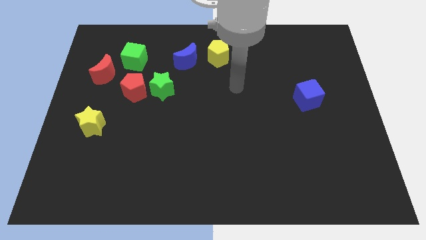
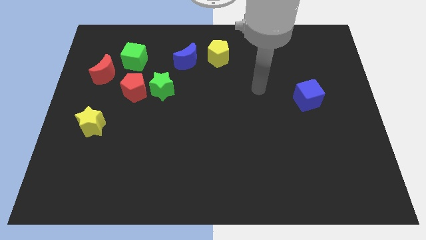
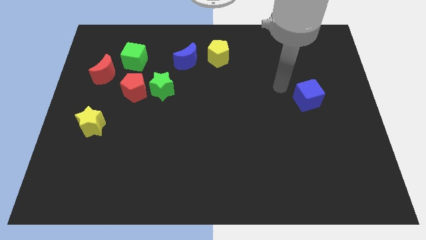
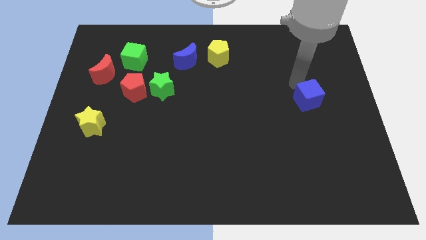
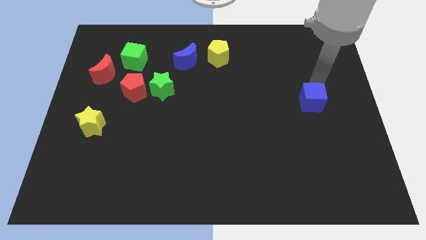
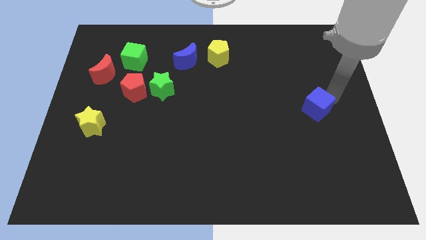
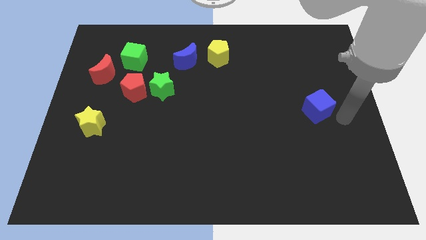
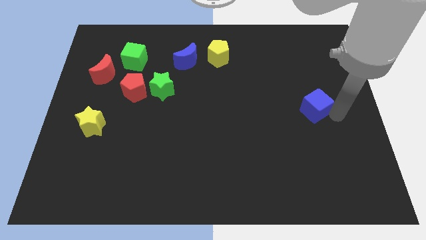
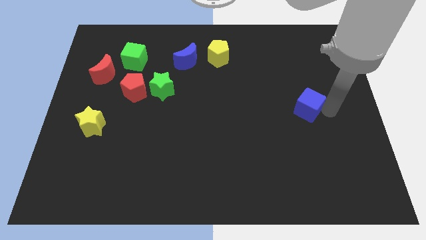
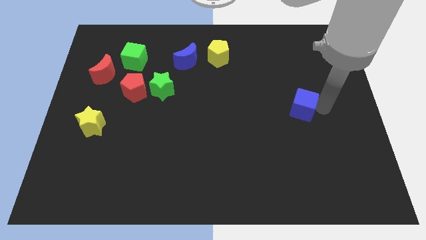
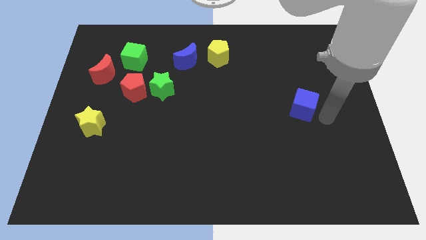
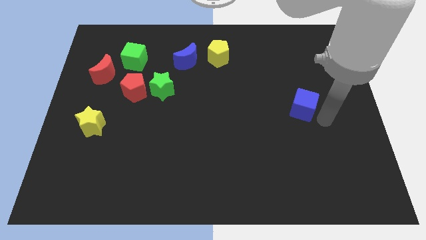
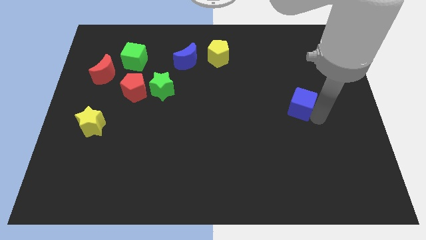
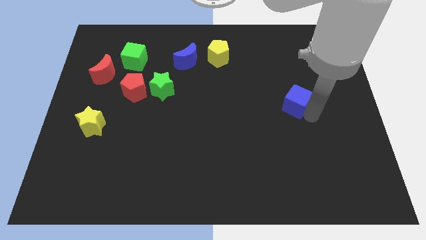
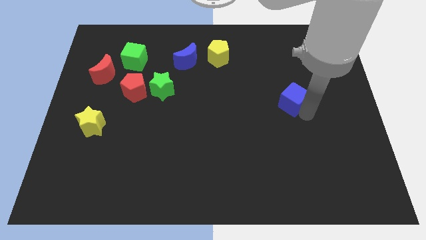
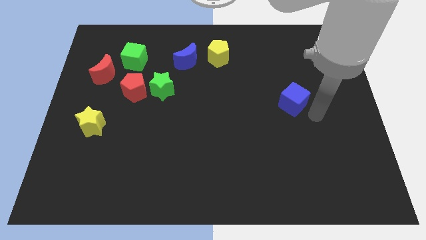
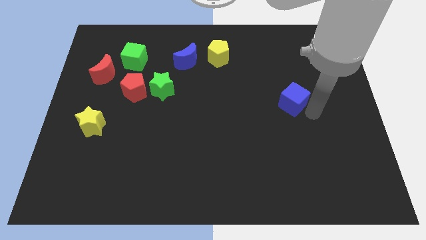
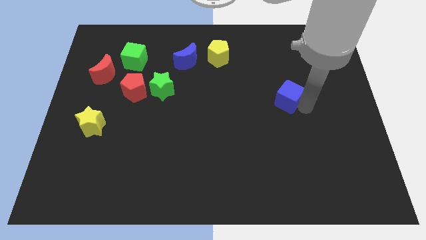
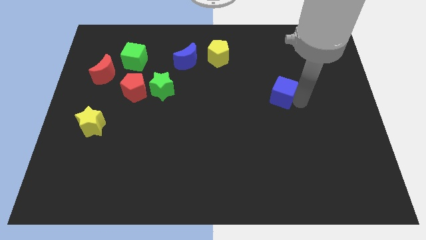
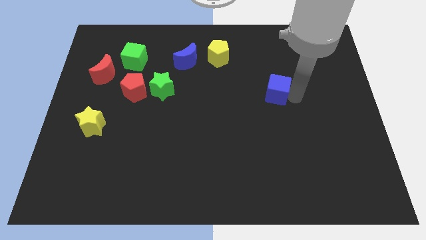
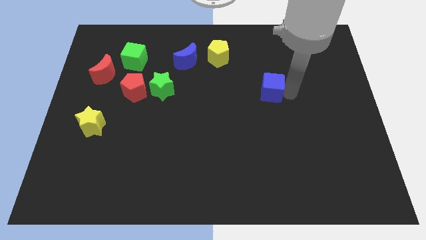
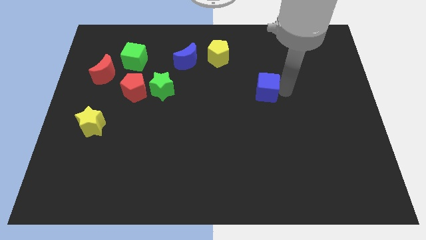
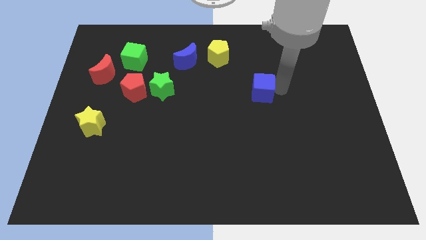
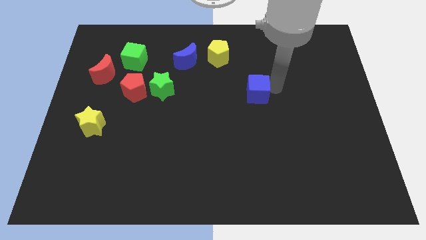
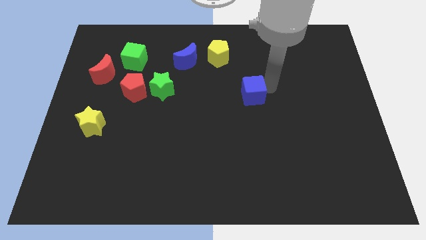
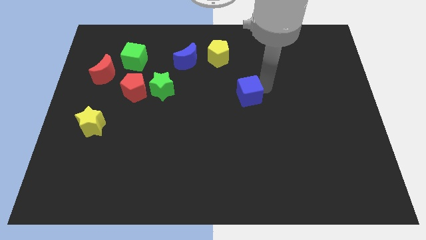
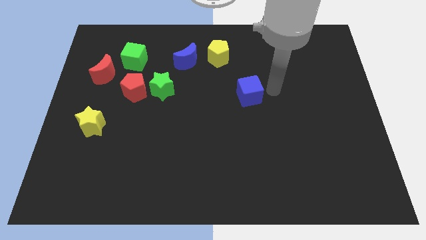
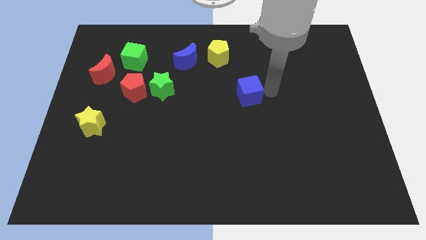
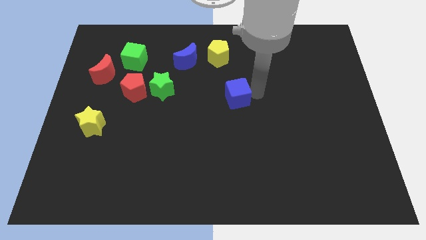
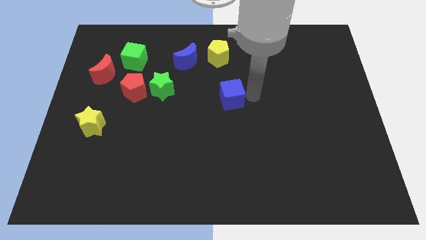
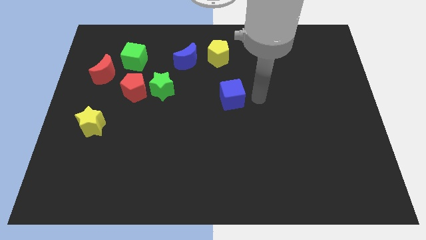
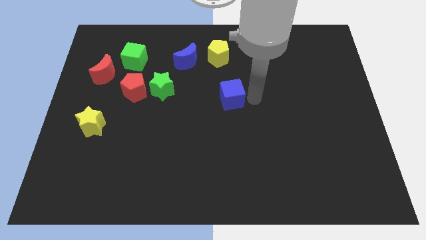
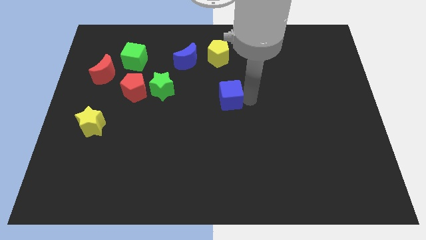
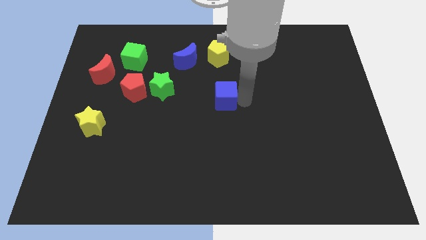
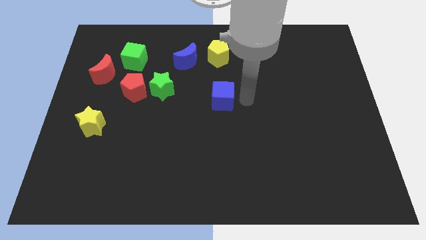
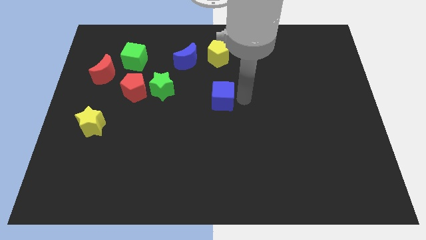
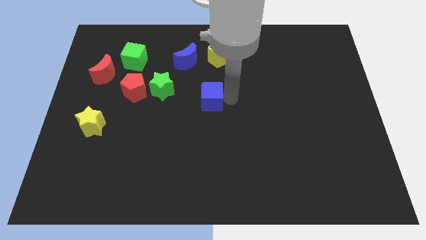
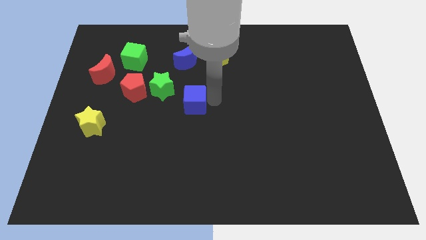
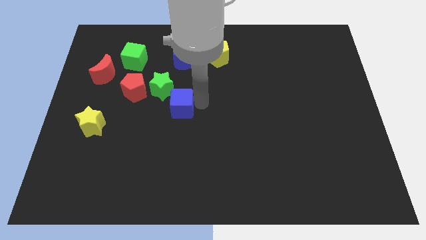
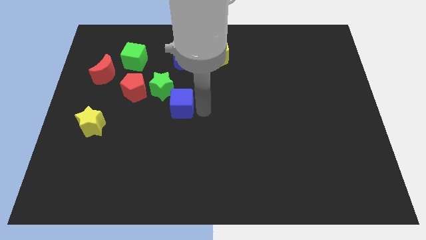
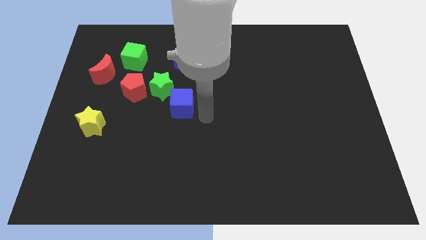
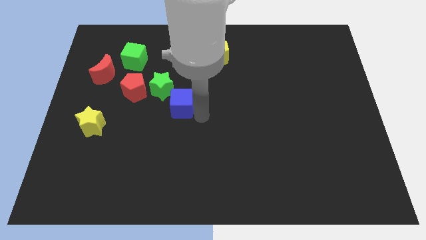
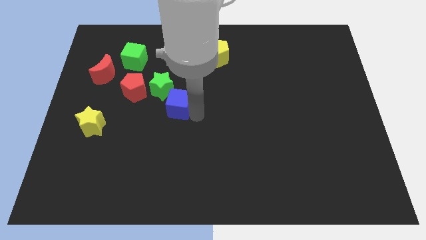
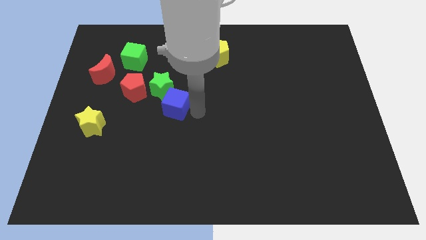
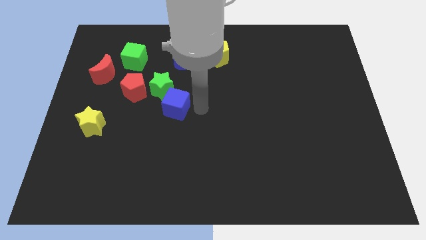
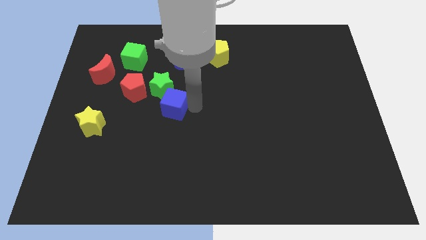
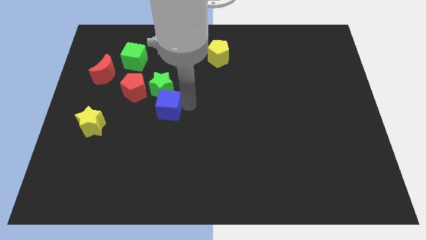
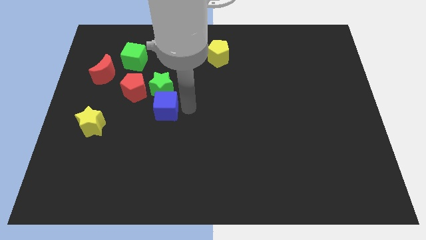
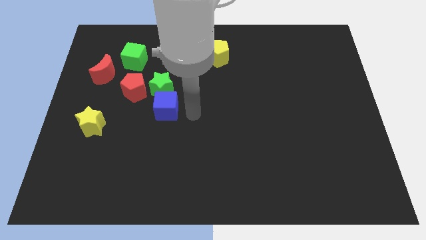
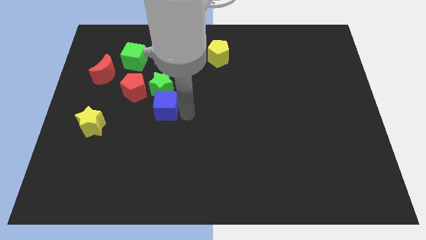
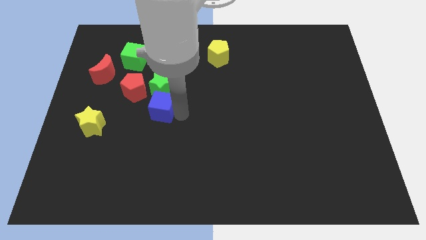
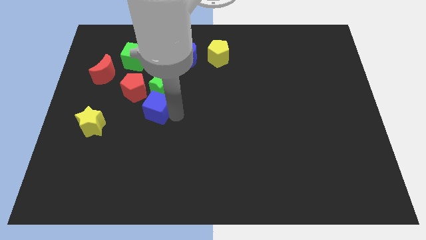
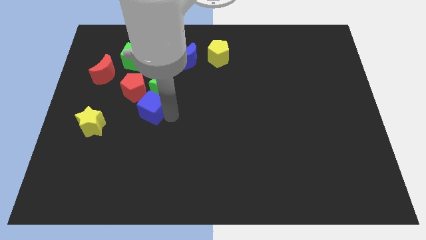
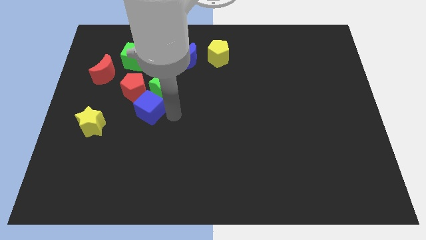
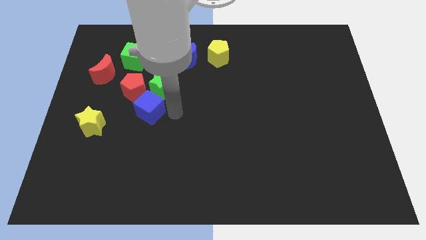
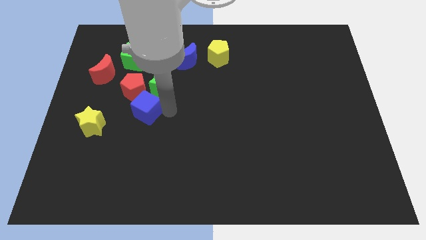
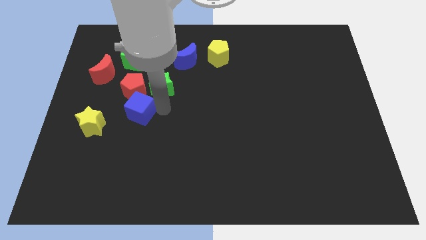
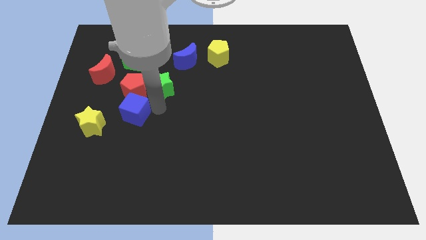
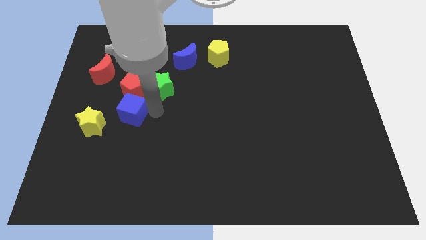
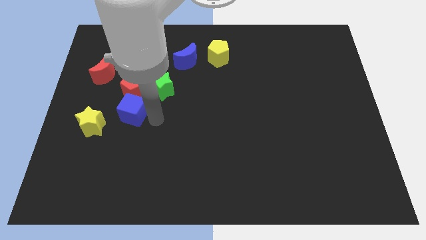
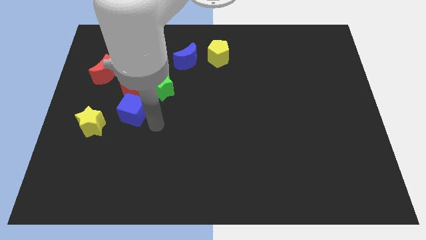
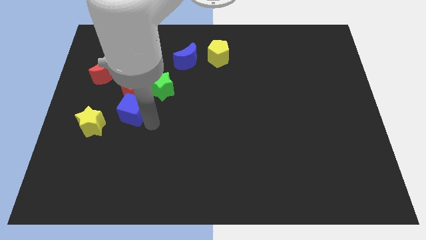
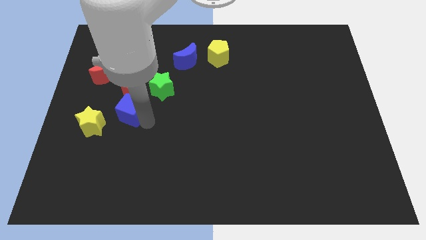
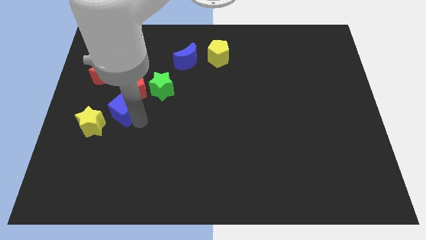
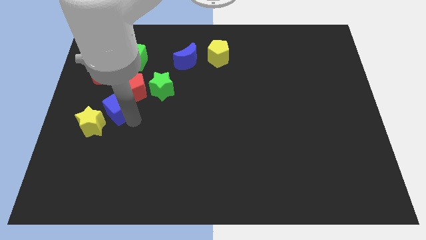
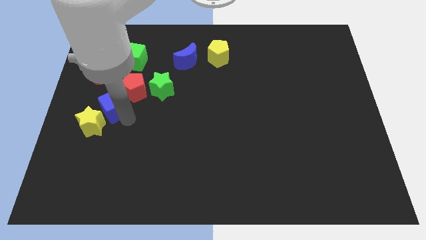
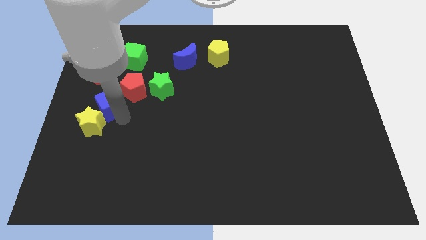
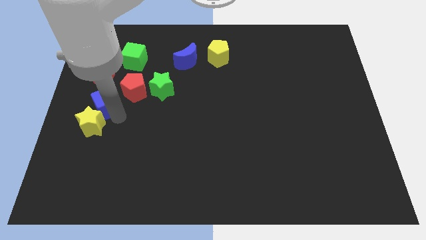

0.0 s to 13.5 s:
slide the blue cube to the left side

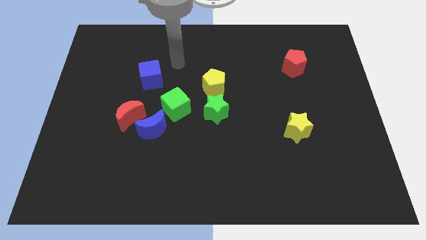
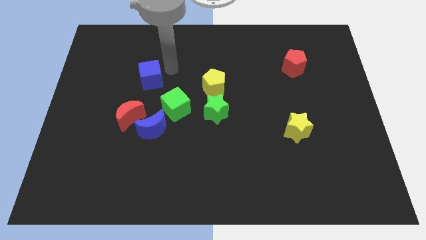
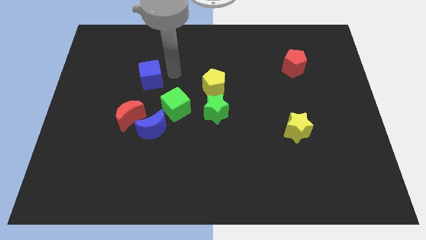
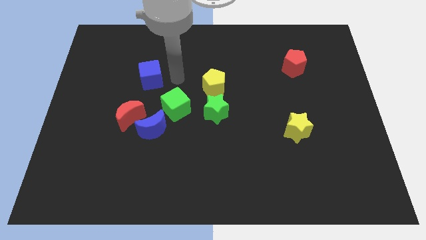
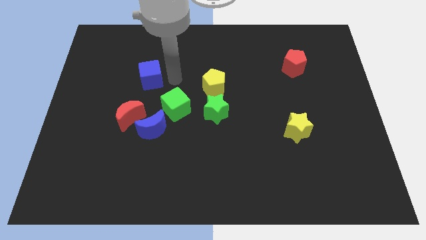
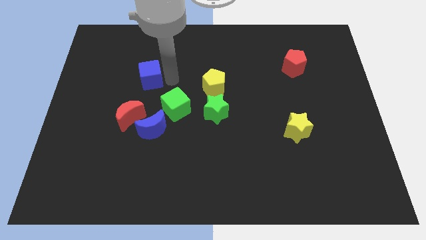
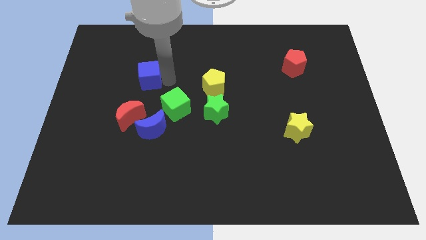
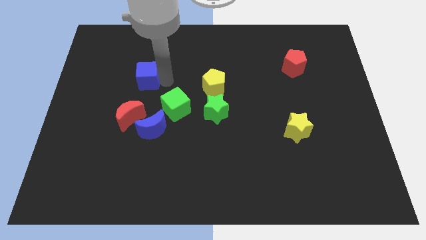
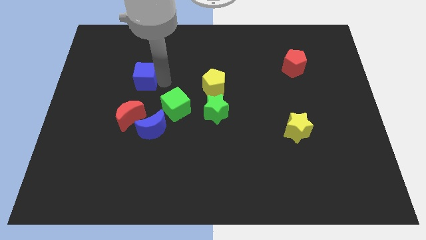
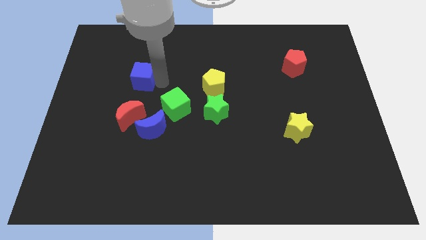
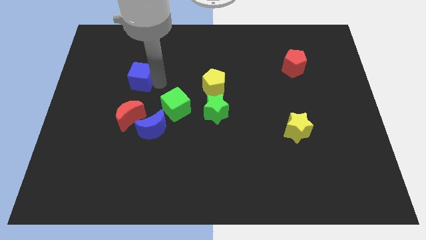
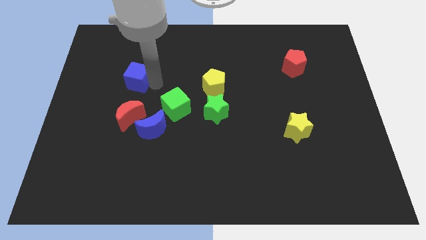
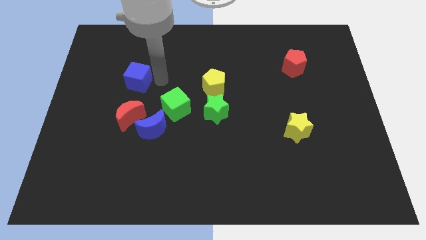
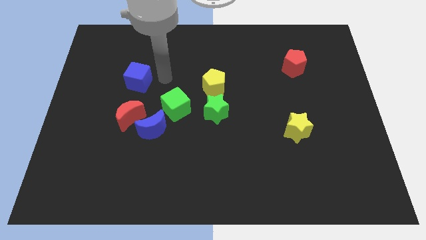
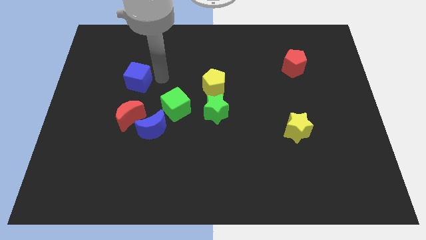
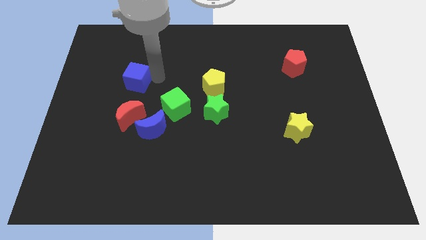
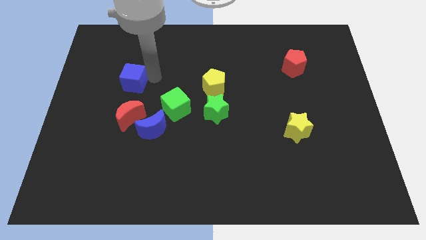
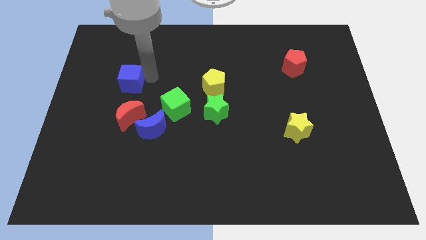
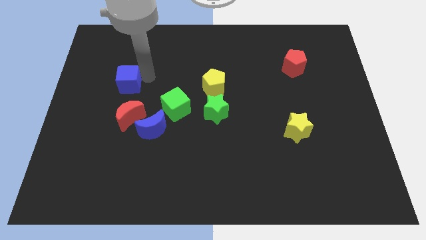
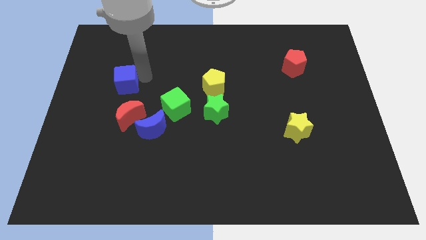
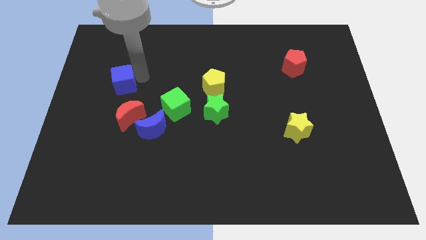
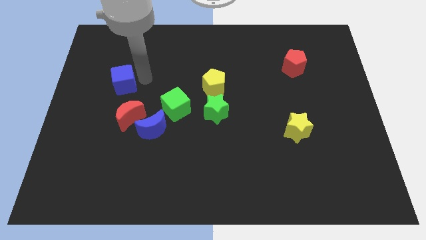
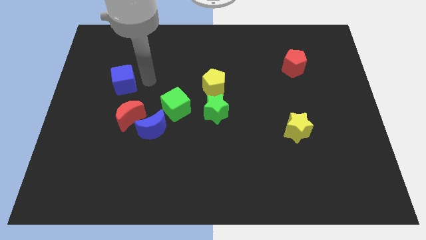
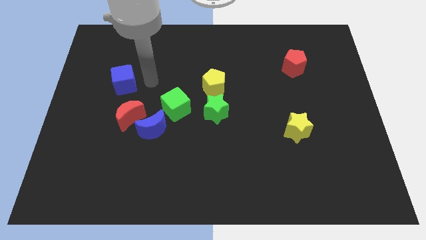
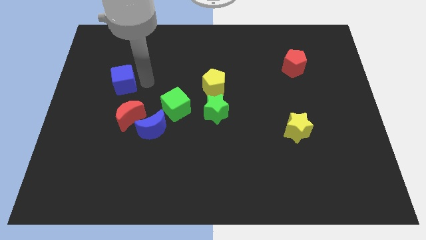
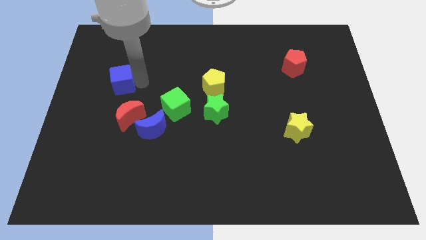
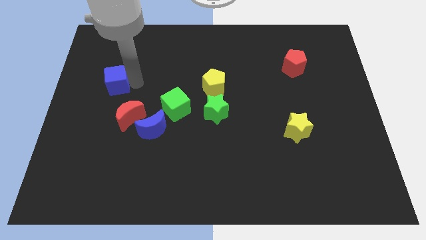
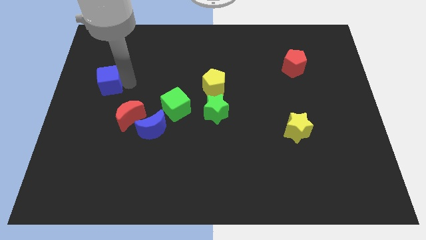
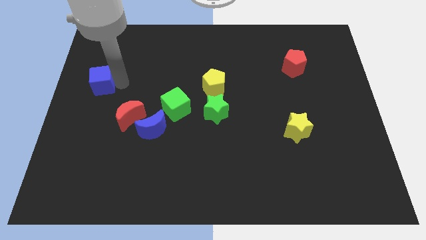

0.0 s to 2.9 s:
push the blue cube to the left side of the board
